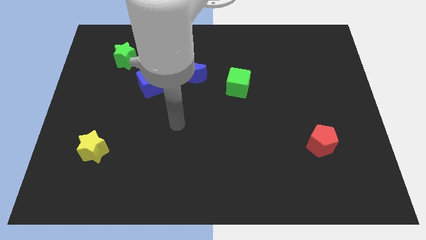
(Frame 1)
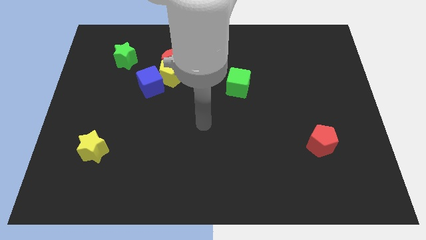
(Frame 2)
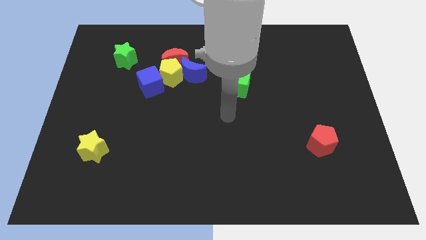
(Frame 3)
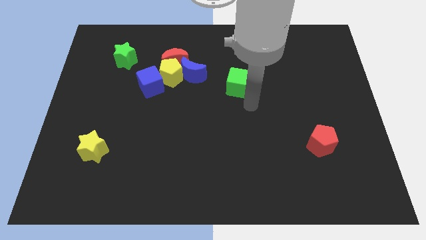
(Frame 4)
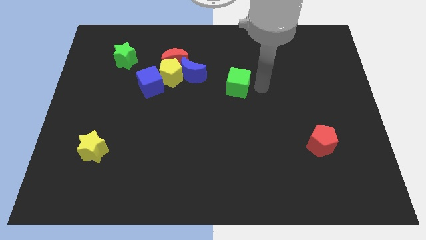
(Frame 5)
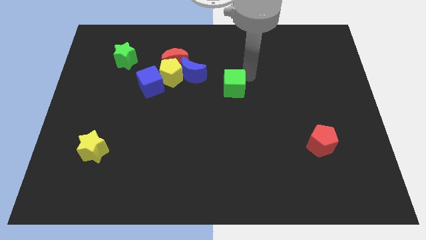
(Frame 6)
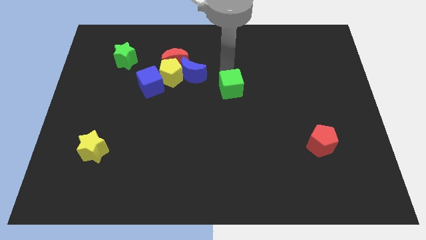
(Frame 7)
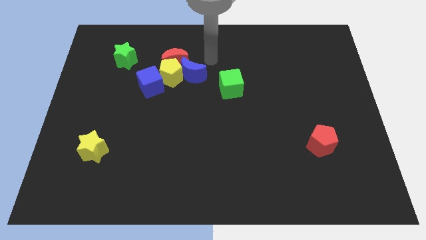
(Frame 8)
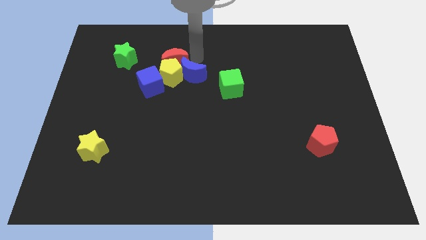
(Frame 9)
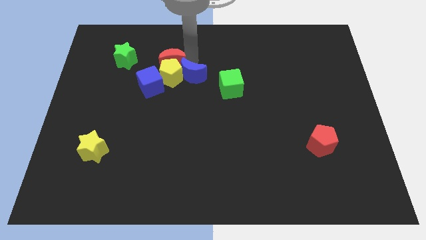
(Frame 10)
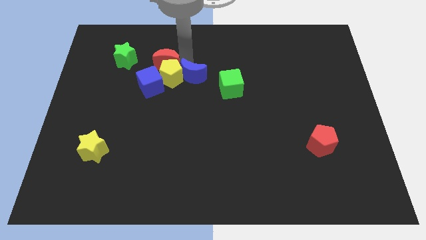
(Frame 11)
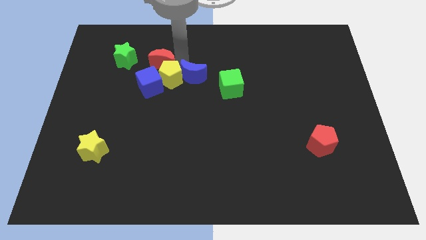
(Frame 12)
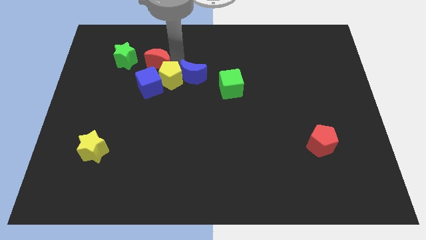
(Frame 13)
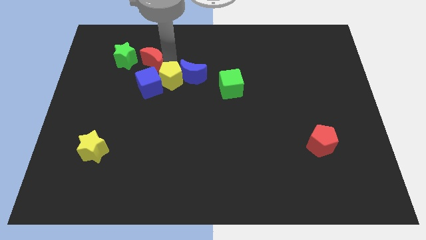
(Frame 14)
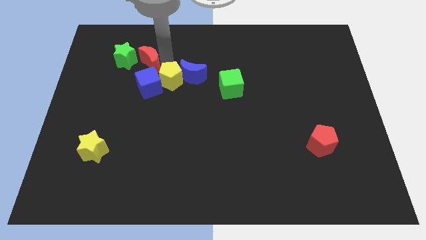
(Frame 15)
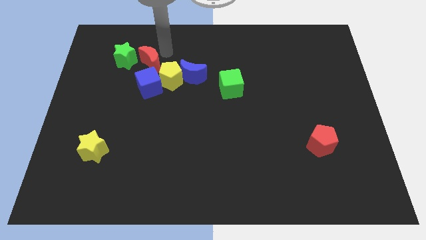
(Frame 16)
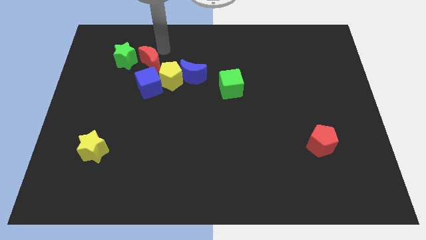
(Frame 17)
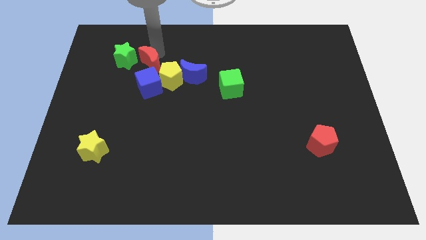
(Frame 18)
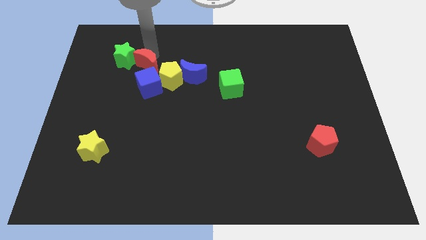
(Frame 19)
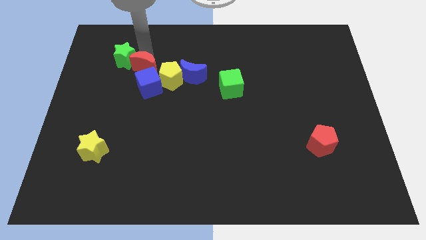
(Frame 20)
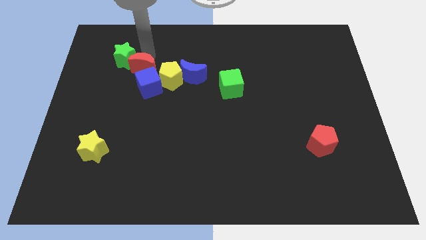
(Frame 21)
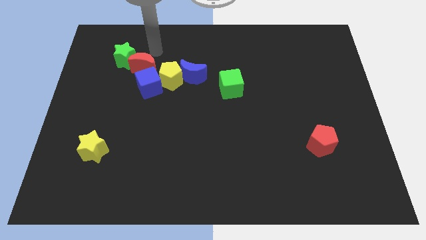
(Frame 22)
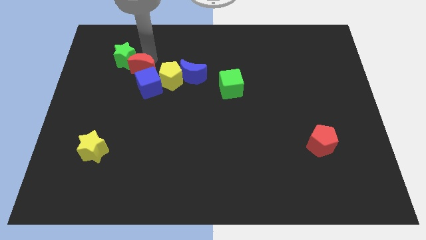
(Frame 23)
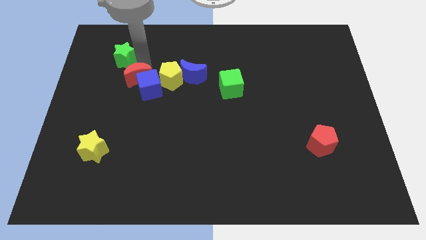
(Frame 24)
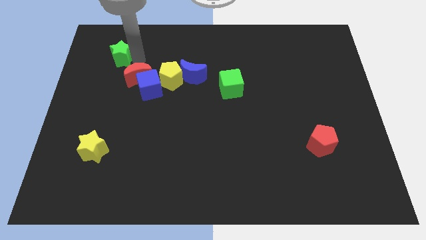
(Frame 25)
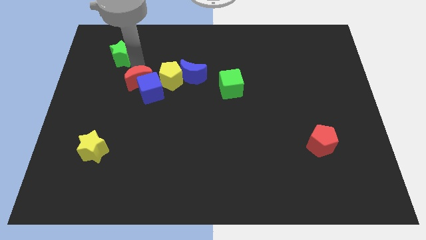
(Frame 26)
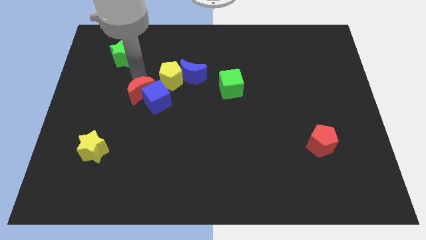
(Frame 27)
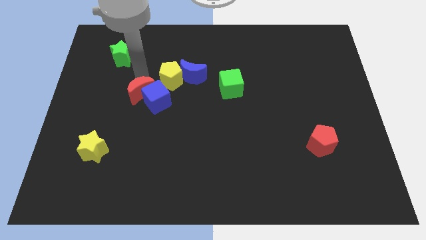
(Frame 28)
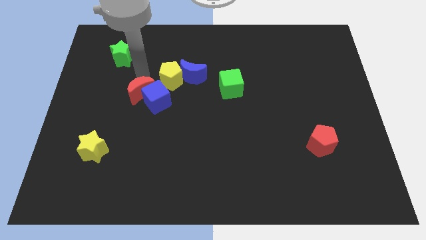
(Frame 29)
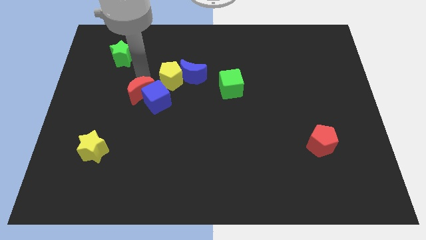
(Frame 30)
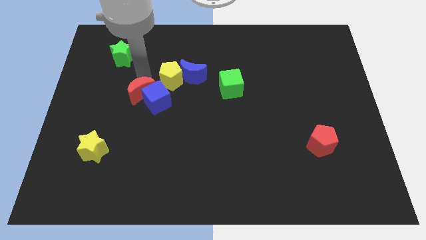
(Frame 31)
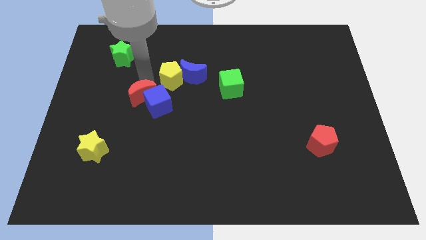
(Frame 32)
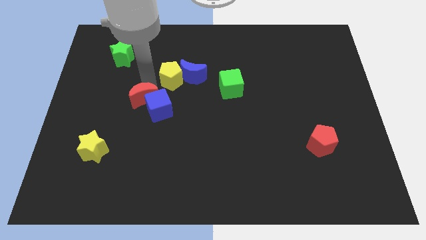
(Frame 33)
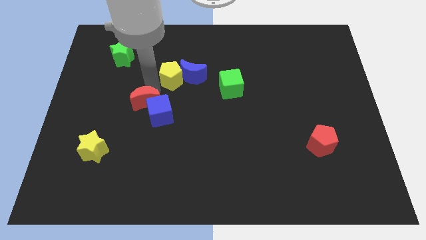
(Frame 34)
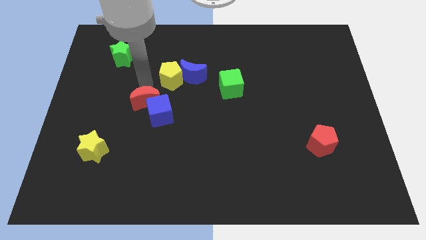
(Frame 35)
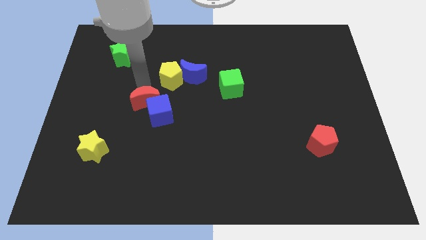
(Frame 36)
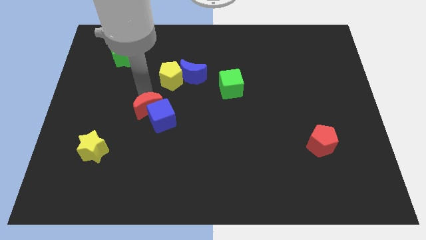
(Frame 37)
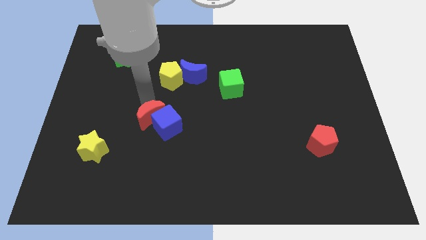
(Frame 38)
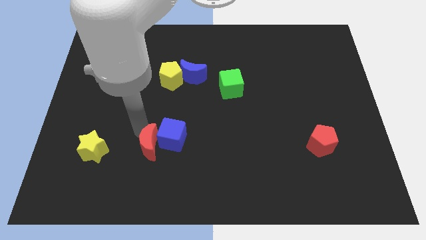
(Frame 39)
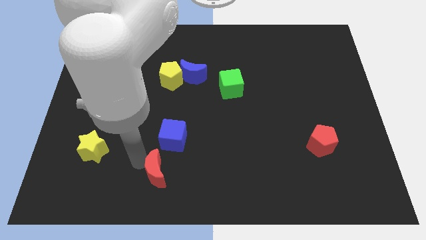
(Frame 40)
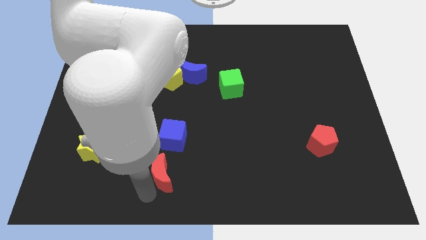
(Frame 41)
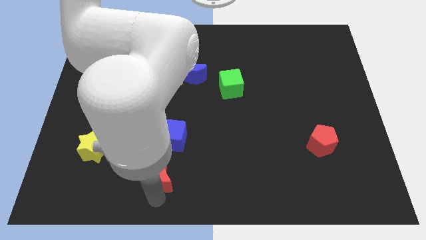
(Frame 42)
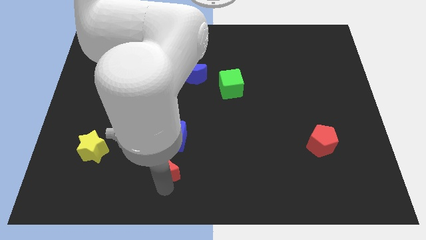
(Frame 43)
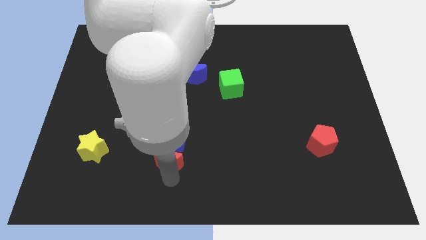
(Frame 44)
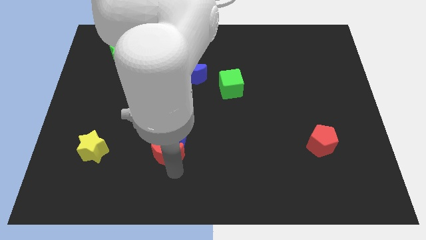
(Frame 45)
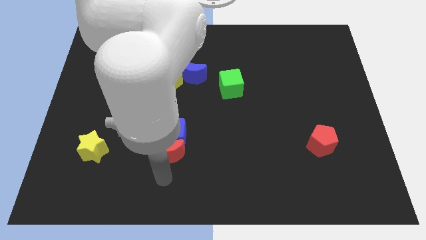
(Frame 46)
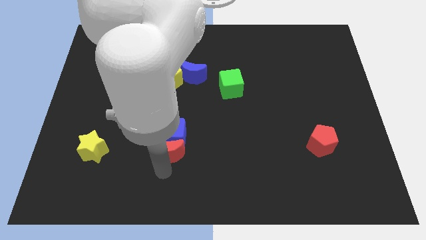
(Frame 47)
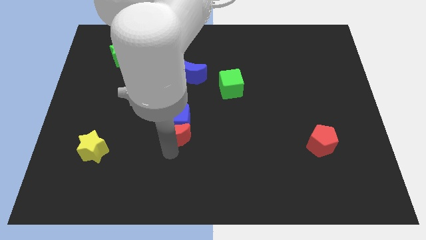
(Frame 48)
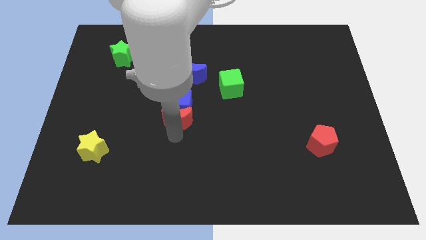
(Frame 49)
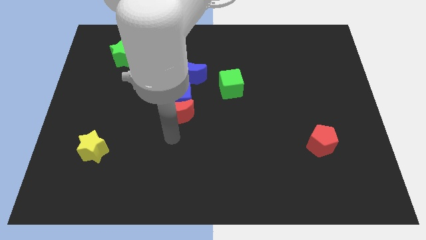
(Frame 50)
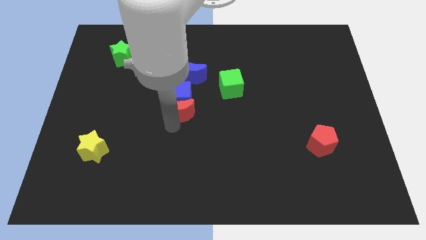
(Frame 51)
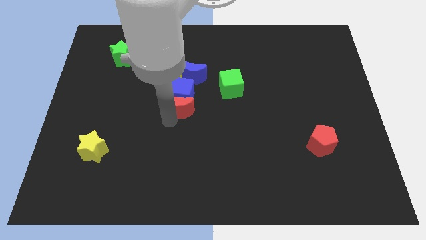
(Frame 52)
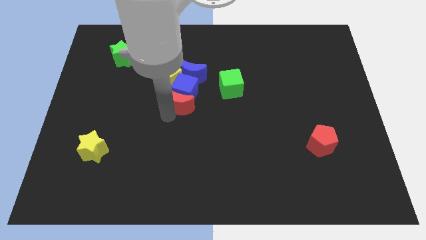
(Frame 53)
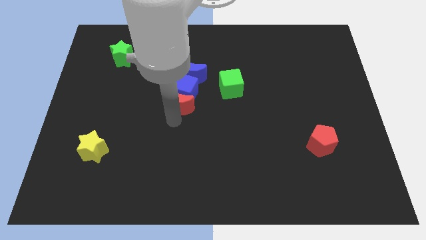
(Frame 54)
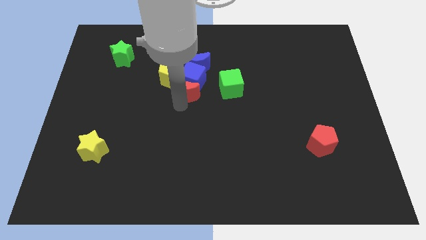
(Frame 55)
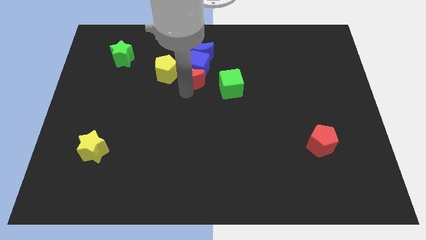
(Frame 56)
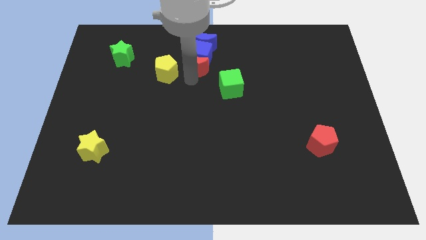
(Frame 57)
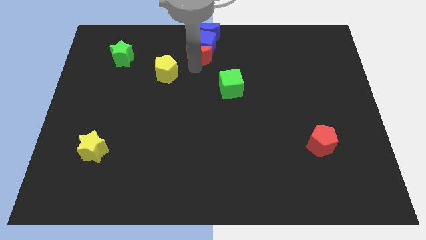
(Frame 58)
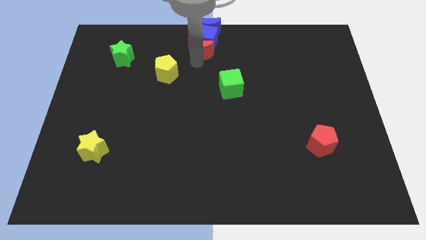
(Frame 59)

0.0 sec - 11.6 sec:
slide the red moon to the top
